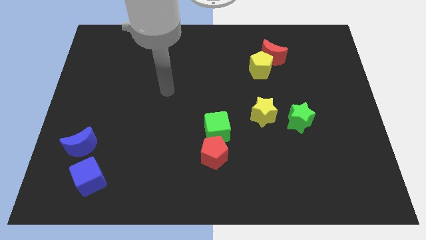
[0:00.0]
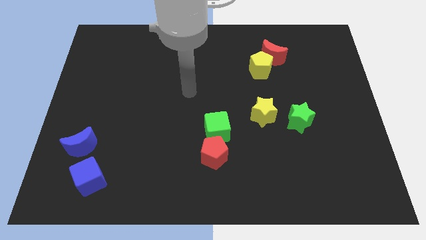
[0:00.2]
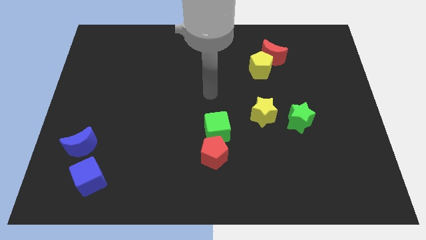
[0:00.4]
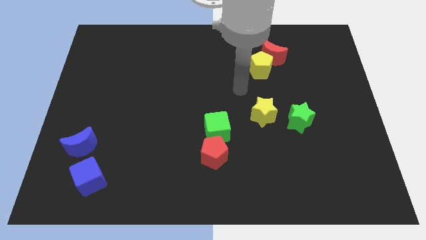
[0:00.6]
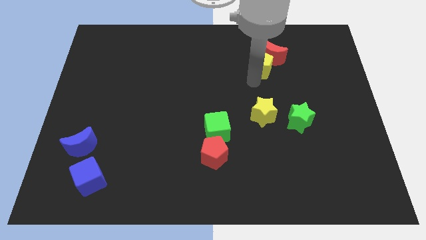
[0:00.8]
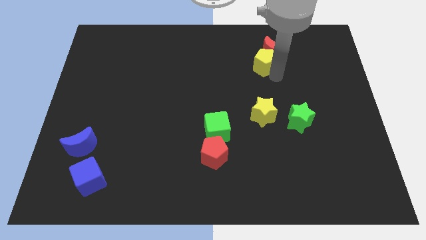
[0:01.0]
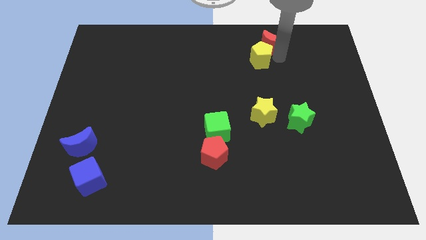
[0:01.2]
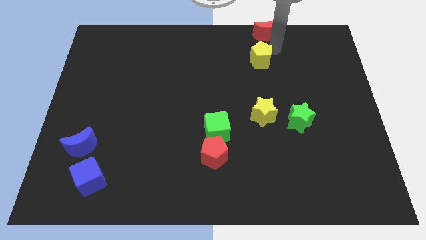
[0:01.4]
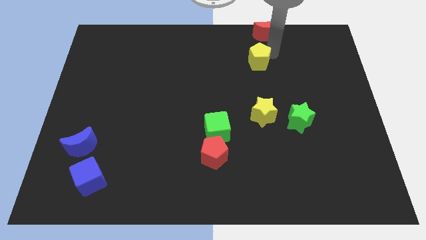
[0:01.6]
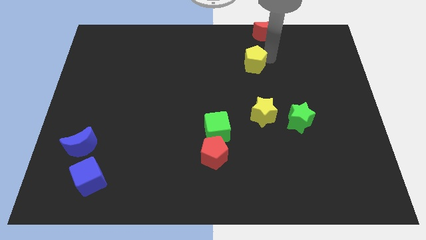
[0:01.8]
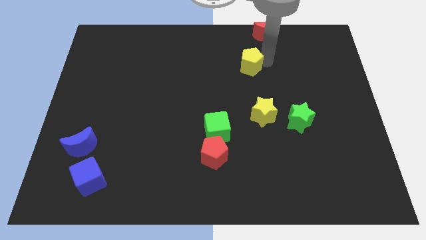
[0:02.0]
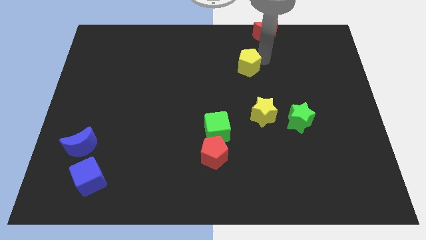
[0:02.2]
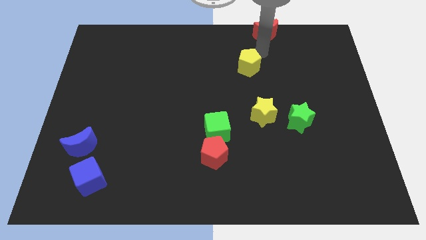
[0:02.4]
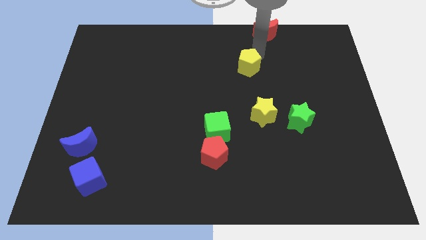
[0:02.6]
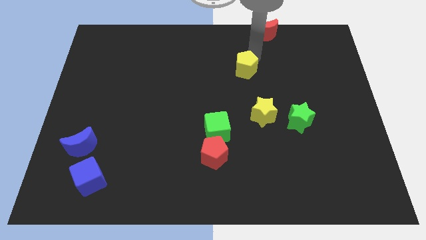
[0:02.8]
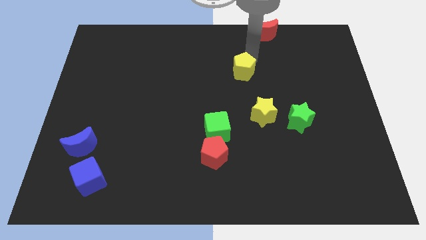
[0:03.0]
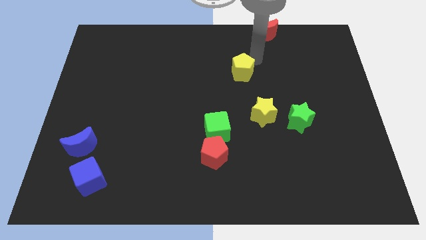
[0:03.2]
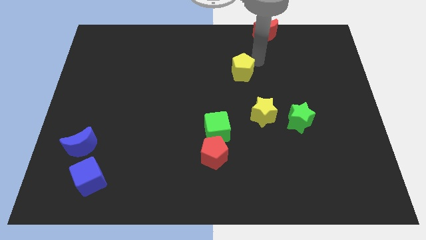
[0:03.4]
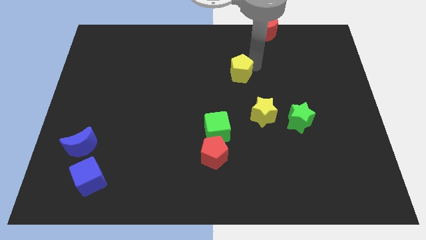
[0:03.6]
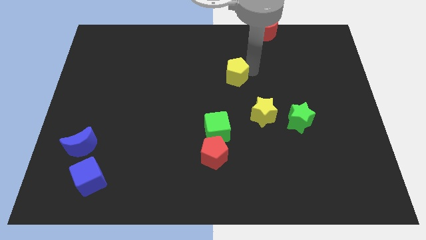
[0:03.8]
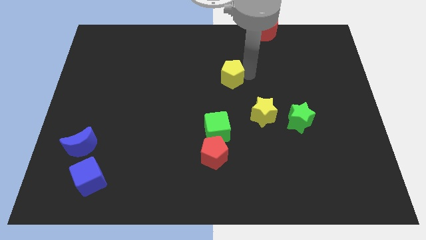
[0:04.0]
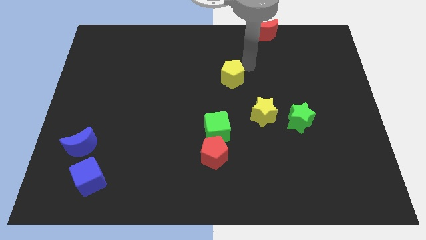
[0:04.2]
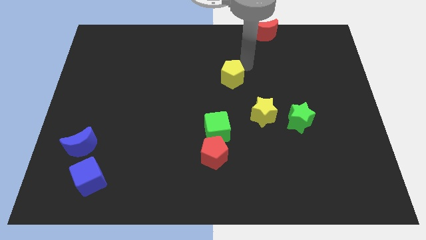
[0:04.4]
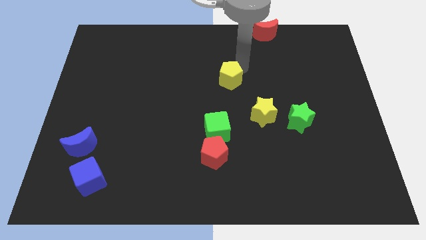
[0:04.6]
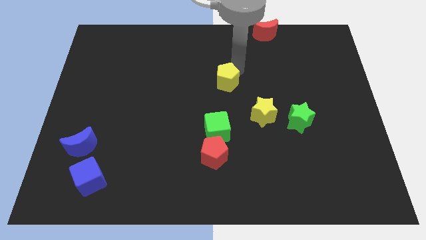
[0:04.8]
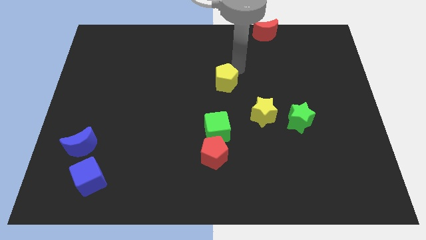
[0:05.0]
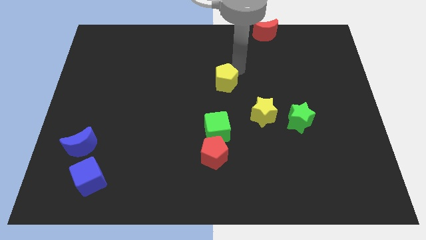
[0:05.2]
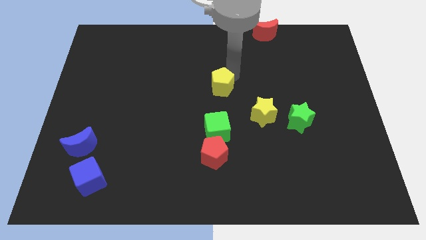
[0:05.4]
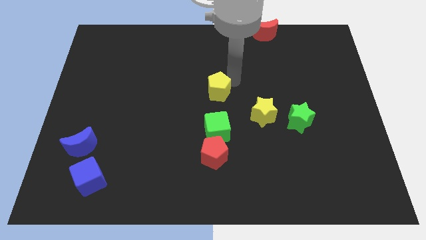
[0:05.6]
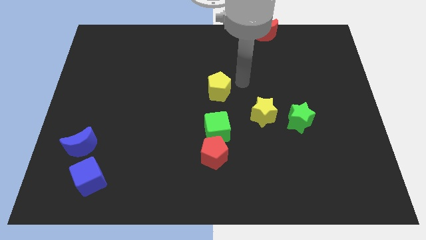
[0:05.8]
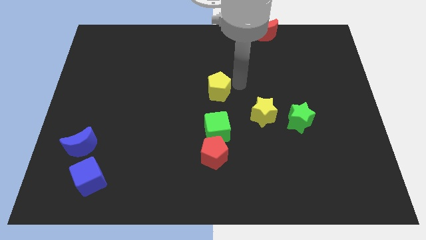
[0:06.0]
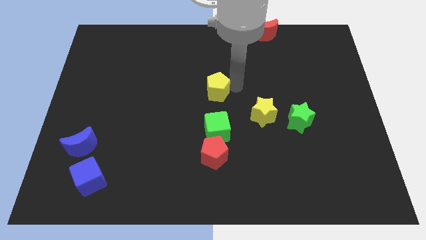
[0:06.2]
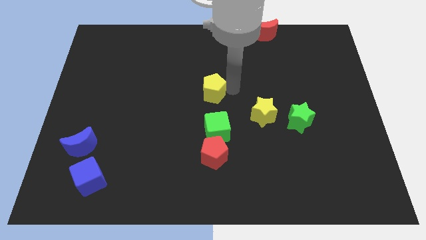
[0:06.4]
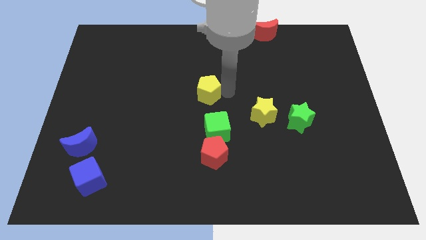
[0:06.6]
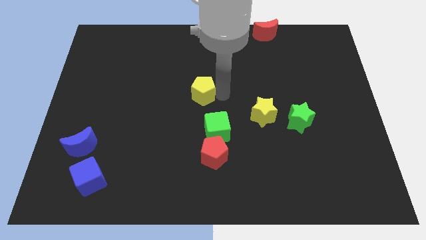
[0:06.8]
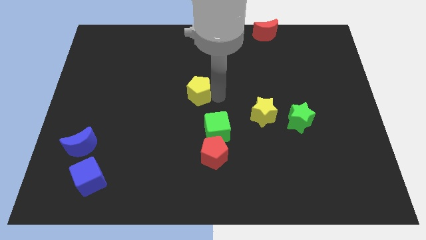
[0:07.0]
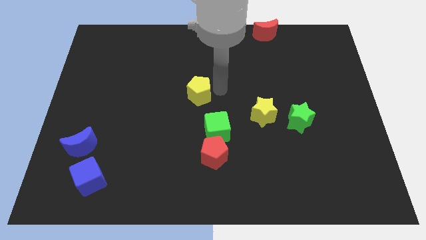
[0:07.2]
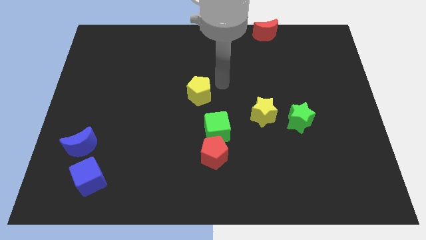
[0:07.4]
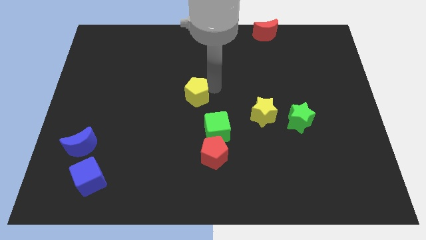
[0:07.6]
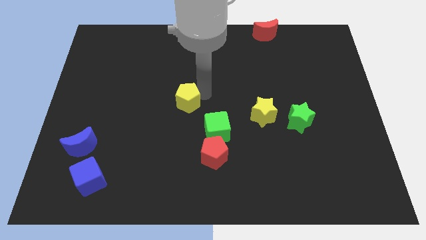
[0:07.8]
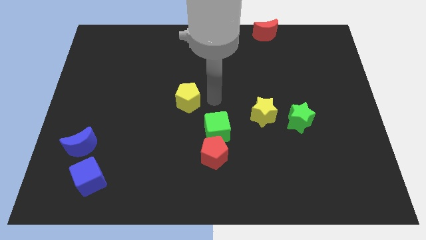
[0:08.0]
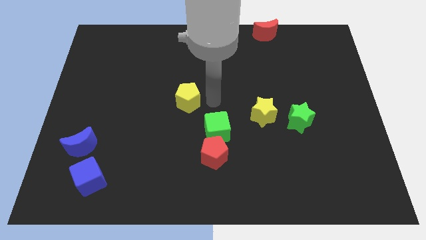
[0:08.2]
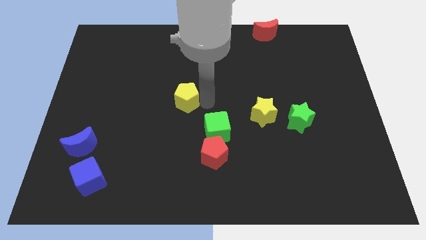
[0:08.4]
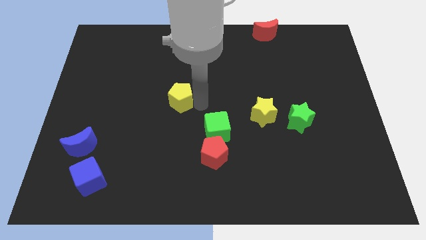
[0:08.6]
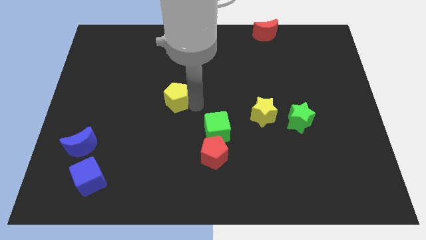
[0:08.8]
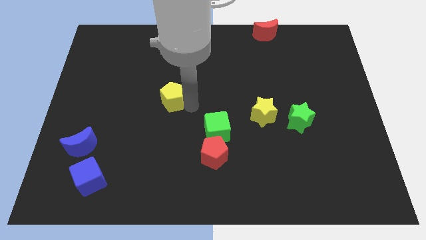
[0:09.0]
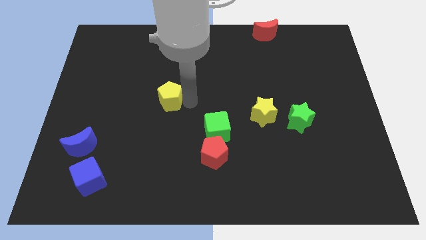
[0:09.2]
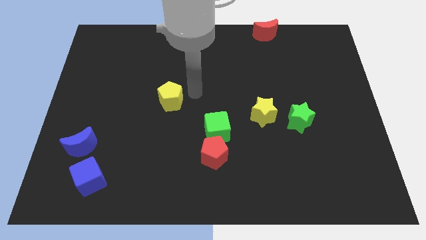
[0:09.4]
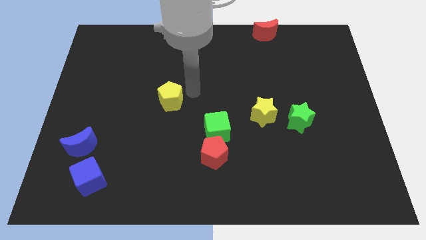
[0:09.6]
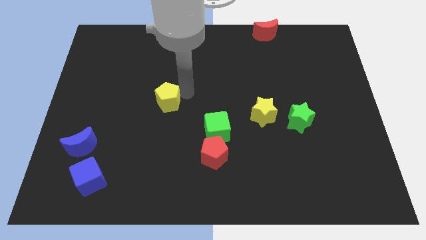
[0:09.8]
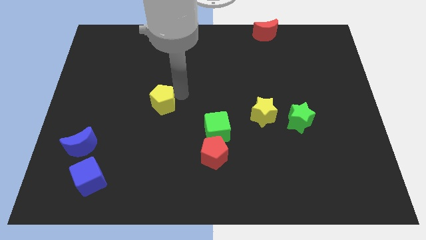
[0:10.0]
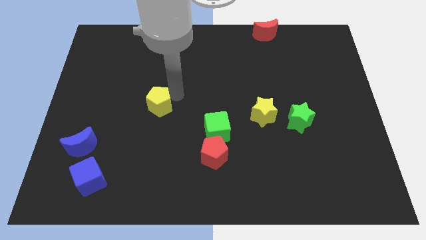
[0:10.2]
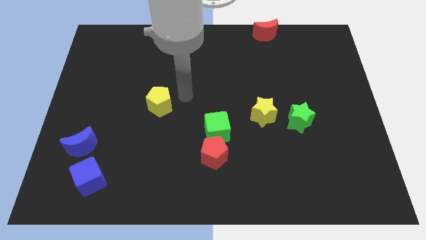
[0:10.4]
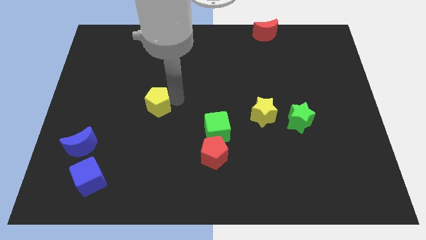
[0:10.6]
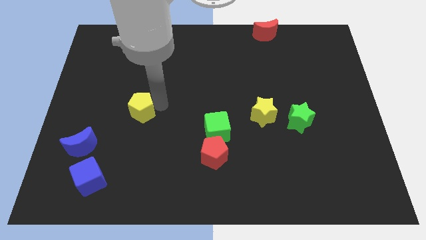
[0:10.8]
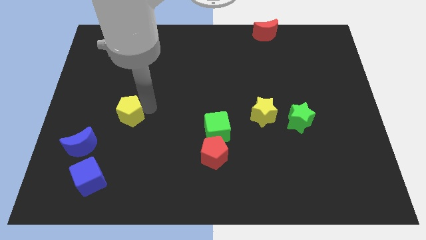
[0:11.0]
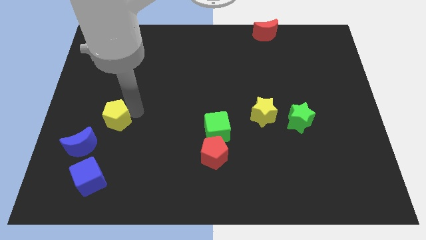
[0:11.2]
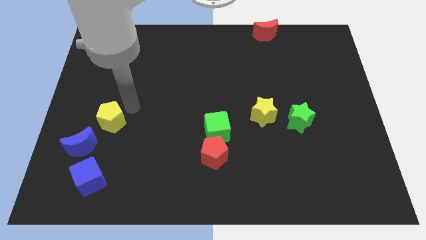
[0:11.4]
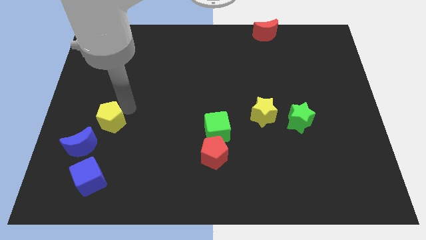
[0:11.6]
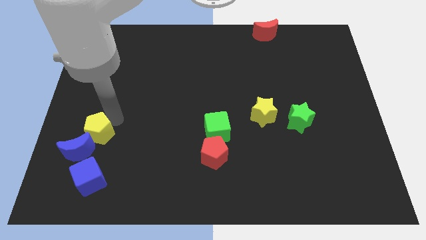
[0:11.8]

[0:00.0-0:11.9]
slide the yellow pentagon to the blue moon

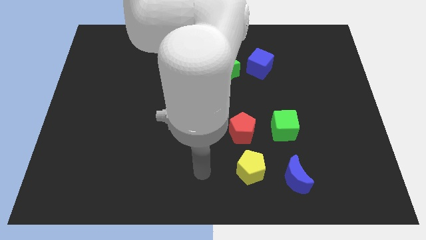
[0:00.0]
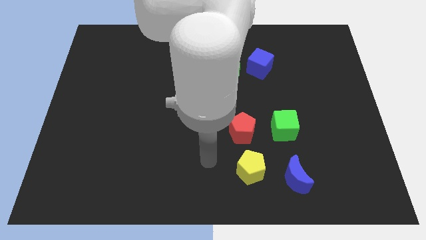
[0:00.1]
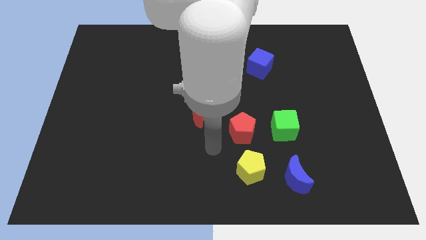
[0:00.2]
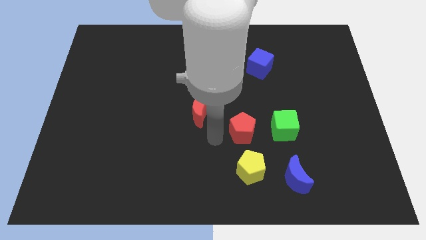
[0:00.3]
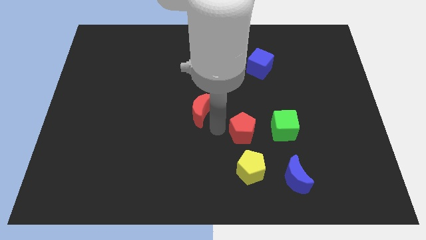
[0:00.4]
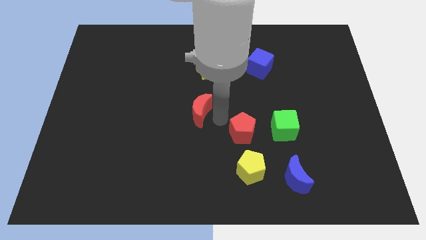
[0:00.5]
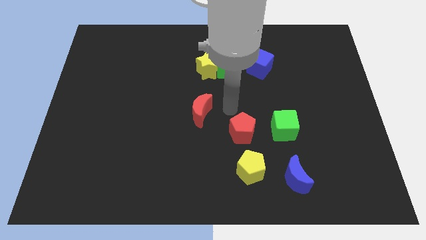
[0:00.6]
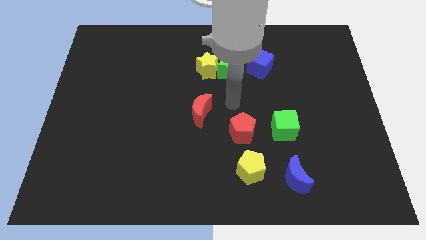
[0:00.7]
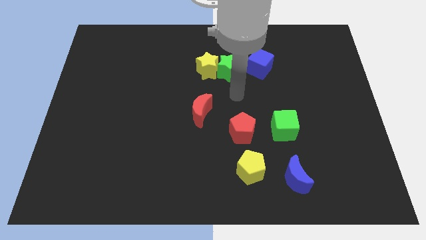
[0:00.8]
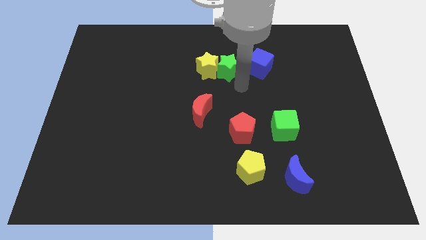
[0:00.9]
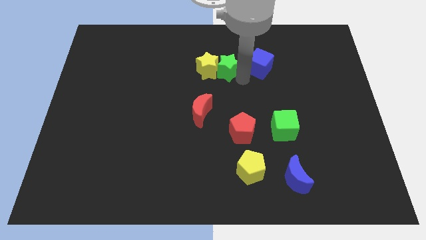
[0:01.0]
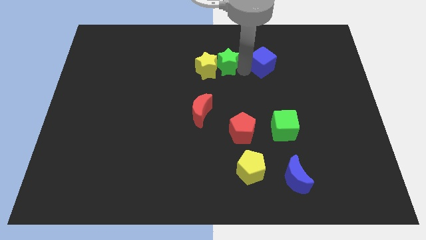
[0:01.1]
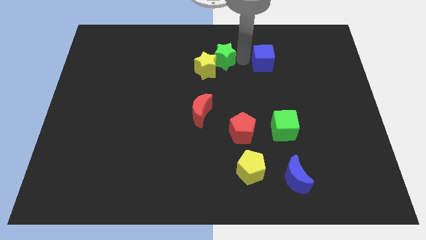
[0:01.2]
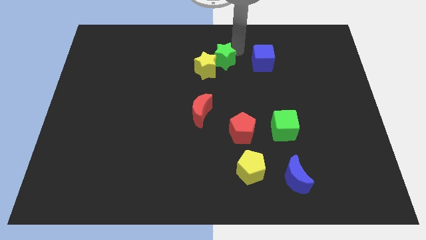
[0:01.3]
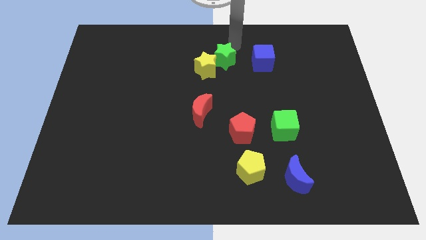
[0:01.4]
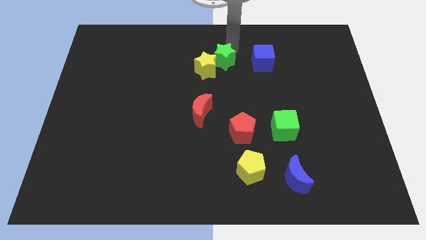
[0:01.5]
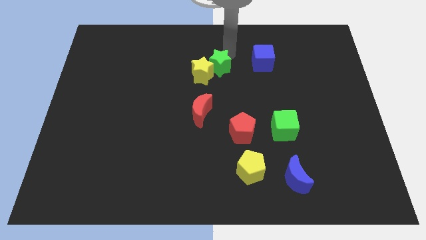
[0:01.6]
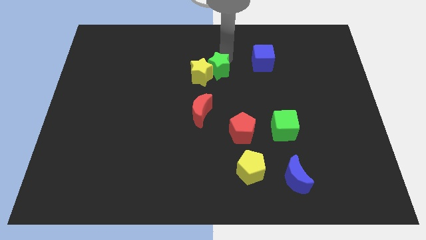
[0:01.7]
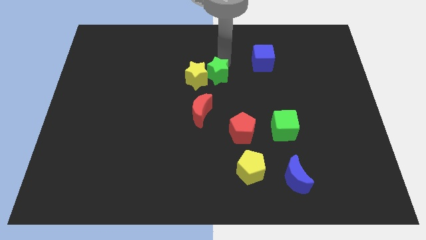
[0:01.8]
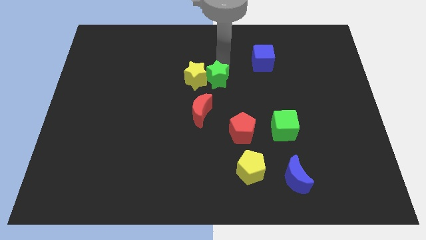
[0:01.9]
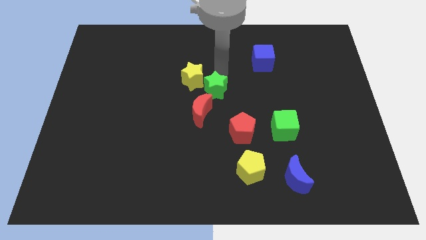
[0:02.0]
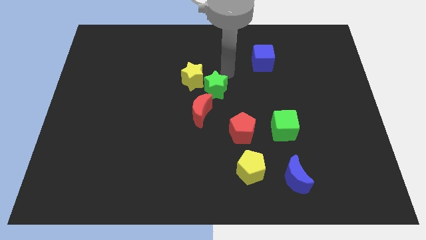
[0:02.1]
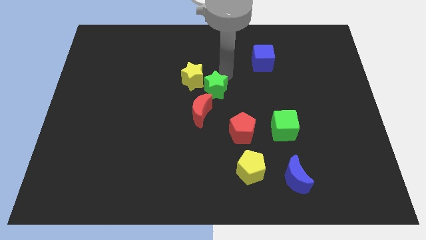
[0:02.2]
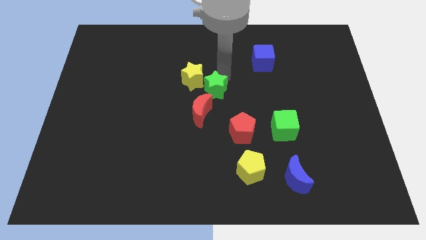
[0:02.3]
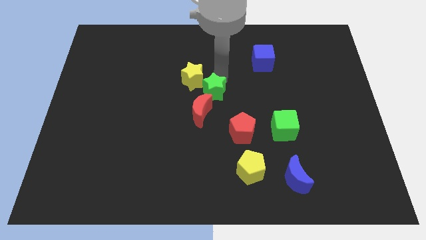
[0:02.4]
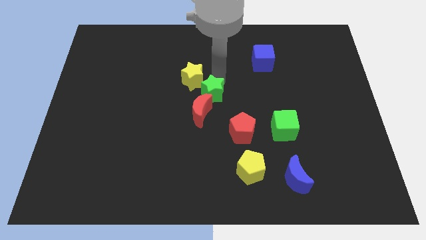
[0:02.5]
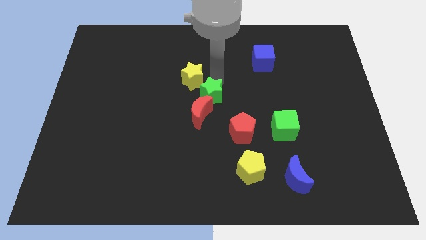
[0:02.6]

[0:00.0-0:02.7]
put the green star towards the red moon
